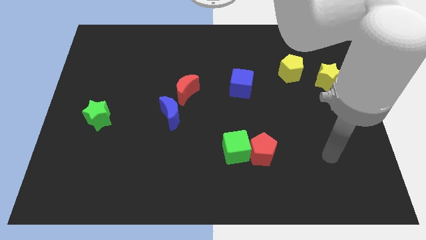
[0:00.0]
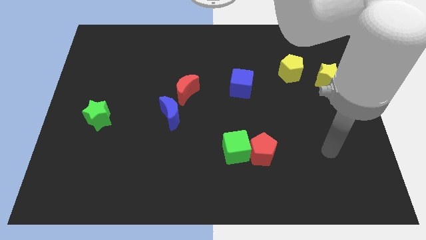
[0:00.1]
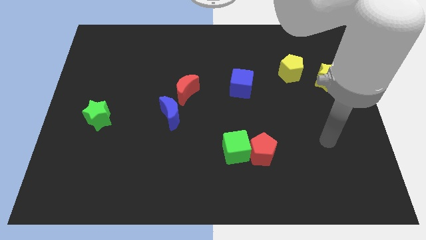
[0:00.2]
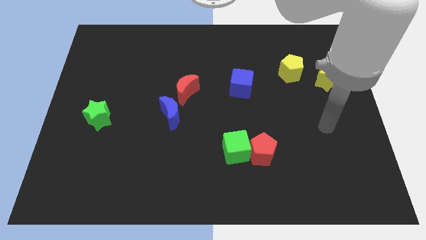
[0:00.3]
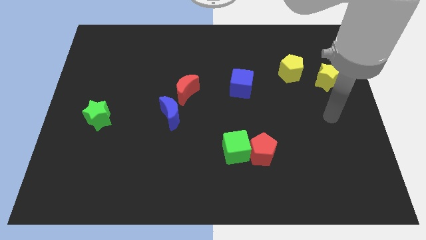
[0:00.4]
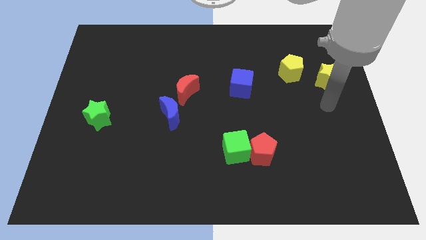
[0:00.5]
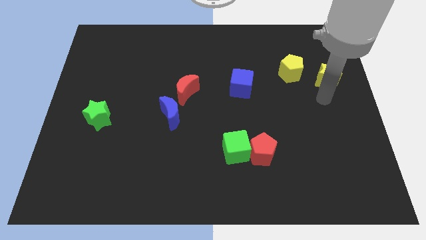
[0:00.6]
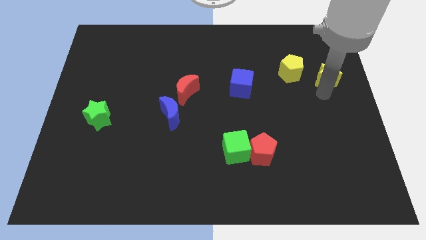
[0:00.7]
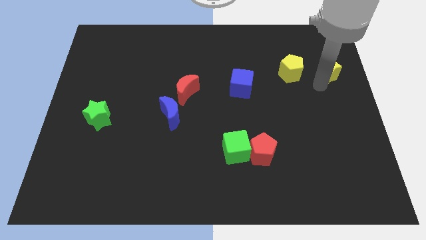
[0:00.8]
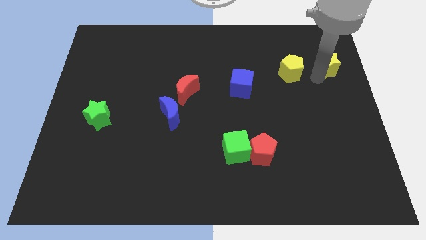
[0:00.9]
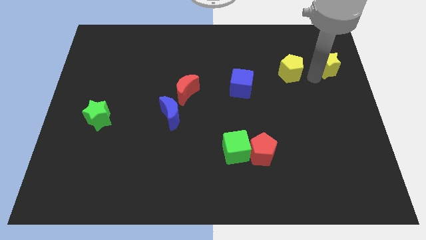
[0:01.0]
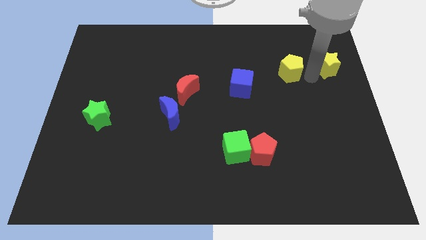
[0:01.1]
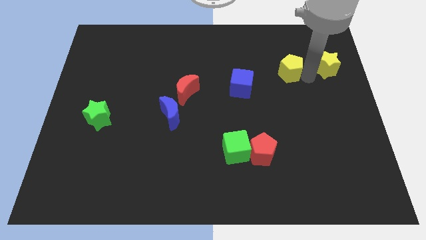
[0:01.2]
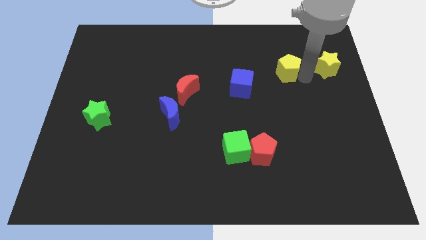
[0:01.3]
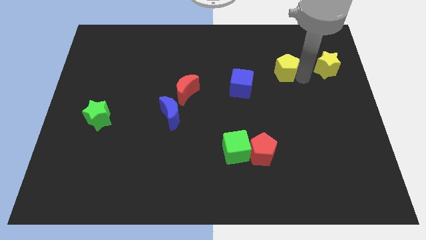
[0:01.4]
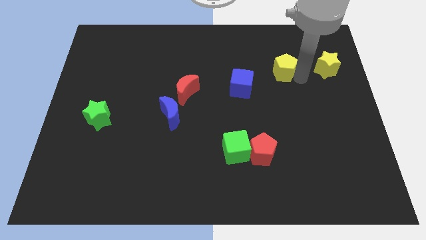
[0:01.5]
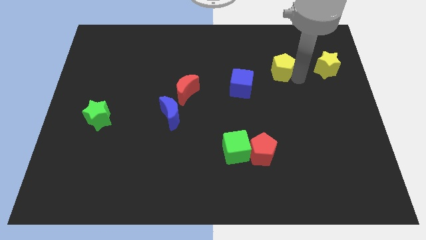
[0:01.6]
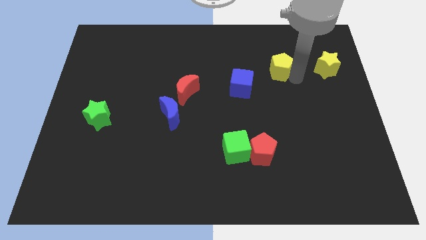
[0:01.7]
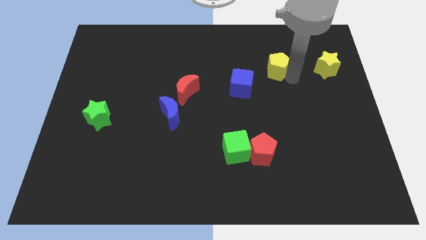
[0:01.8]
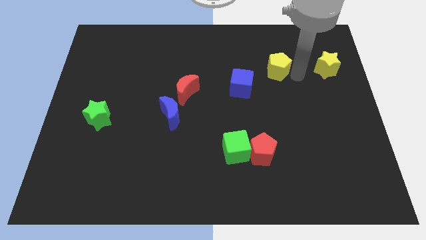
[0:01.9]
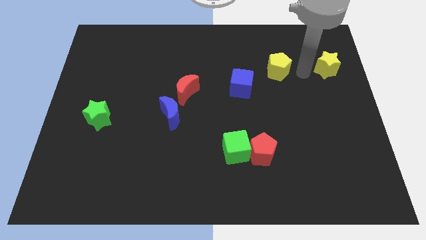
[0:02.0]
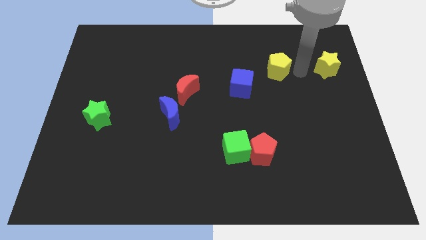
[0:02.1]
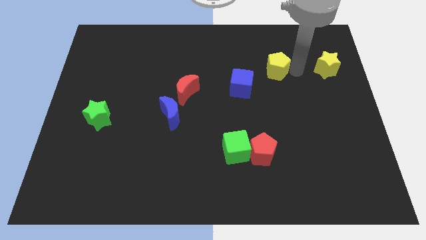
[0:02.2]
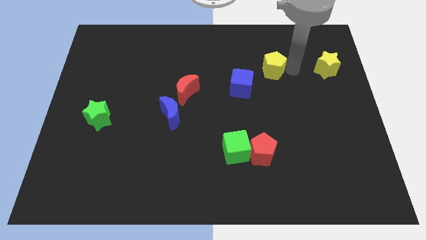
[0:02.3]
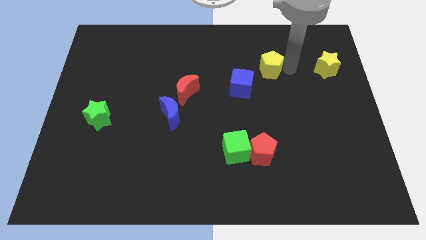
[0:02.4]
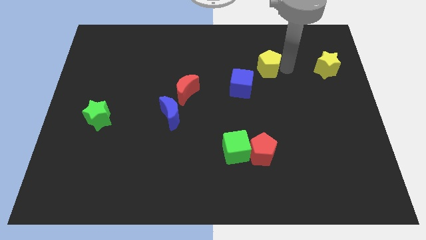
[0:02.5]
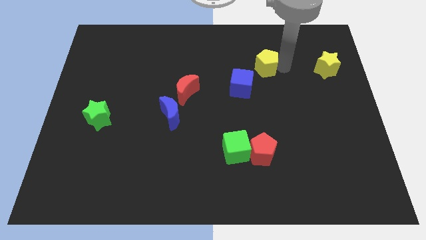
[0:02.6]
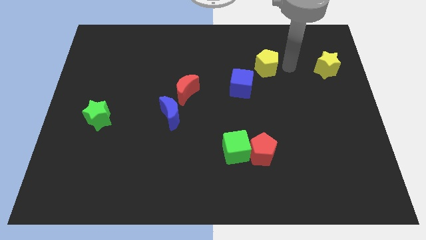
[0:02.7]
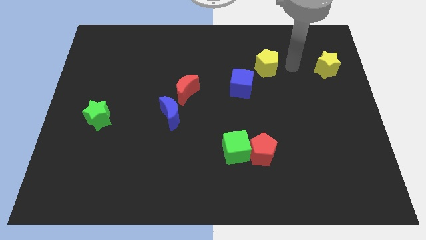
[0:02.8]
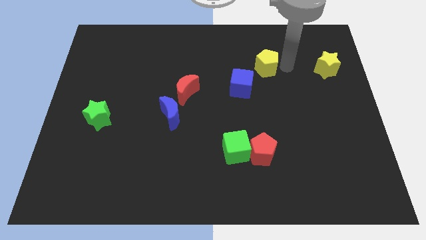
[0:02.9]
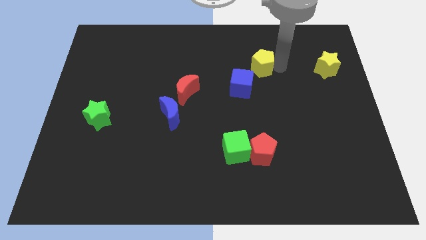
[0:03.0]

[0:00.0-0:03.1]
slide the yellow pentagon a little bit left

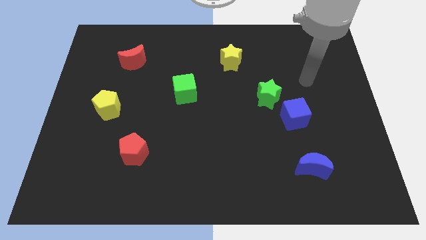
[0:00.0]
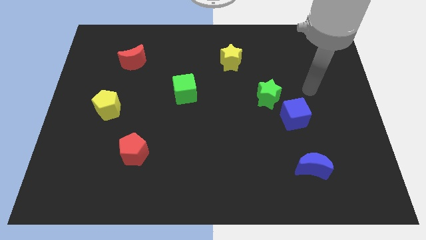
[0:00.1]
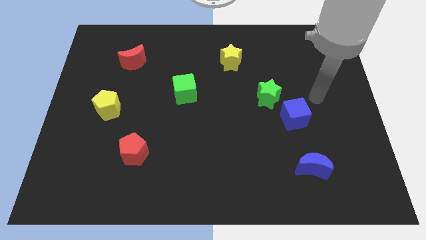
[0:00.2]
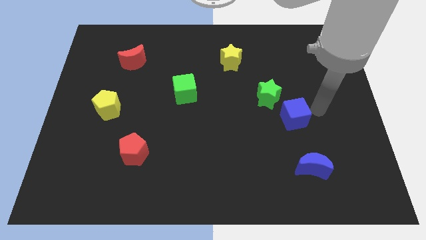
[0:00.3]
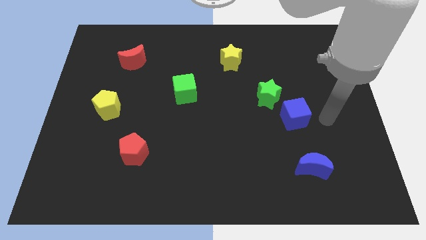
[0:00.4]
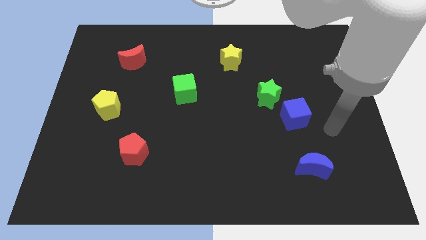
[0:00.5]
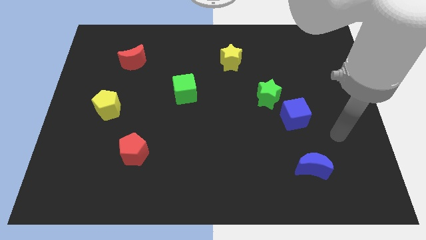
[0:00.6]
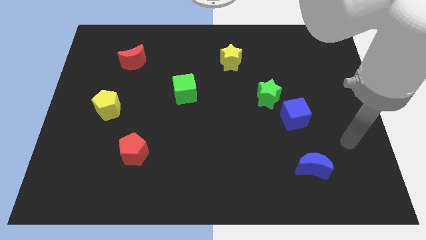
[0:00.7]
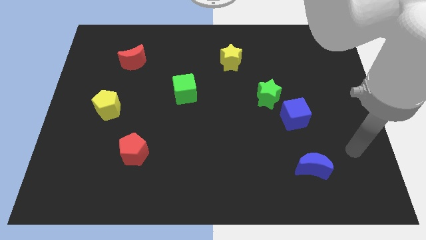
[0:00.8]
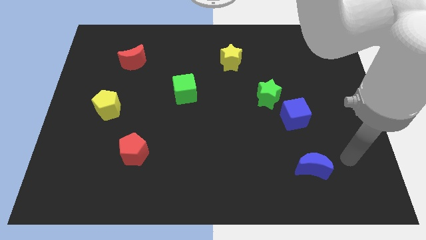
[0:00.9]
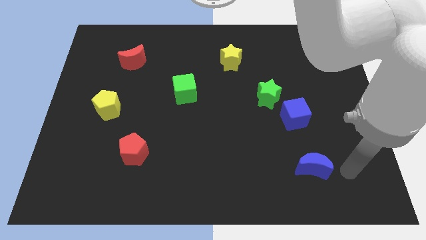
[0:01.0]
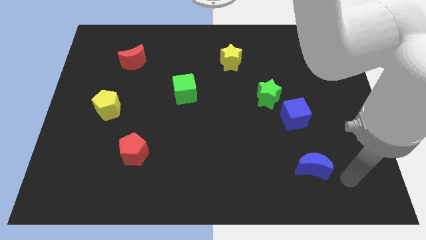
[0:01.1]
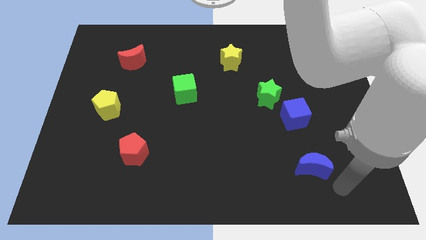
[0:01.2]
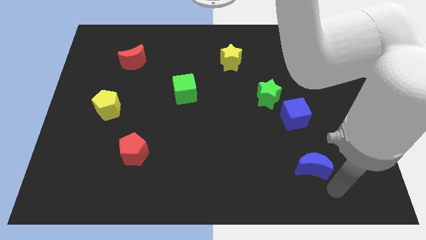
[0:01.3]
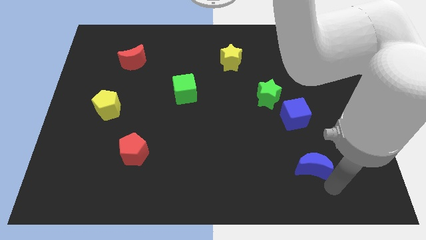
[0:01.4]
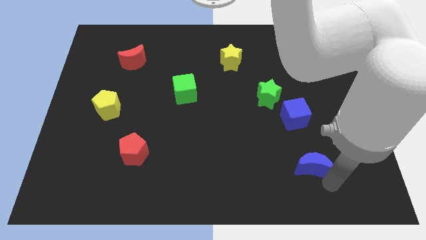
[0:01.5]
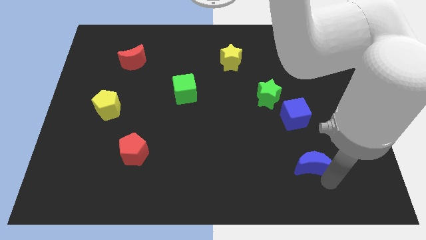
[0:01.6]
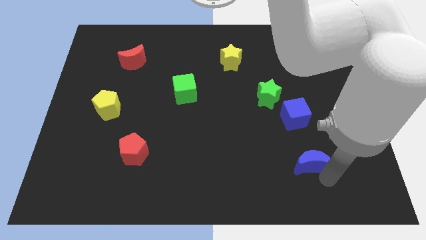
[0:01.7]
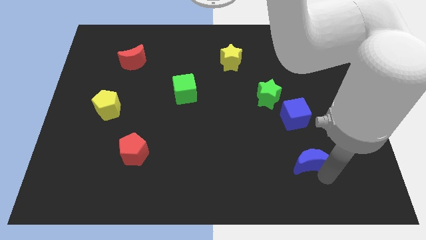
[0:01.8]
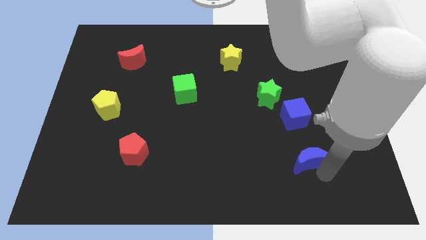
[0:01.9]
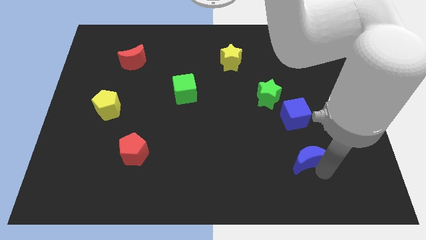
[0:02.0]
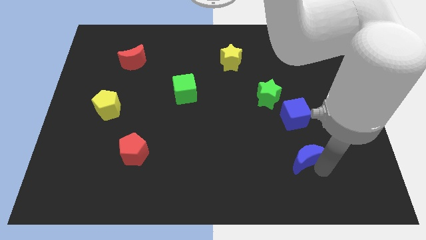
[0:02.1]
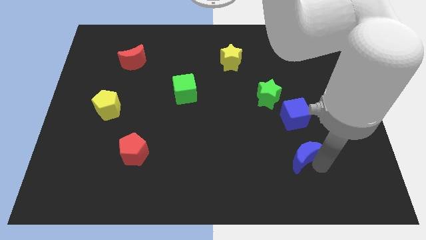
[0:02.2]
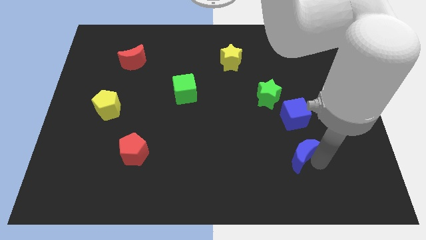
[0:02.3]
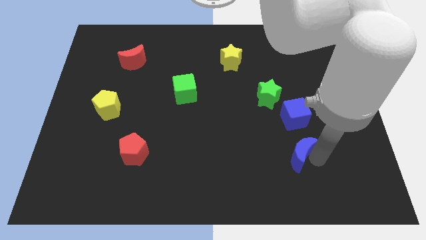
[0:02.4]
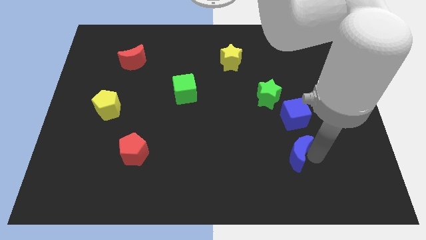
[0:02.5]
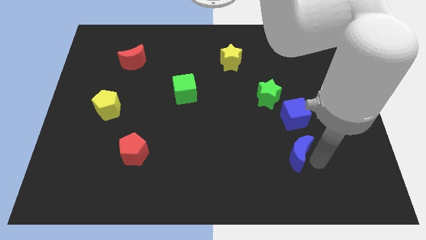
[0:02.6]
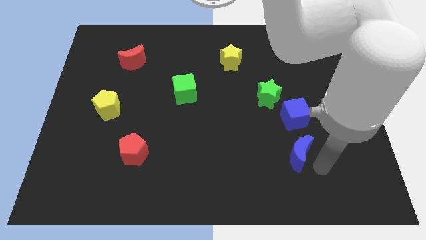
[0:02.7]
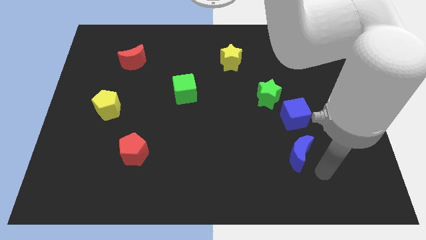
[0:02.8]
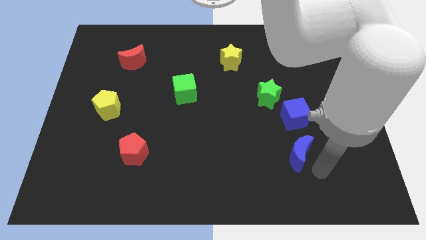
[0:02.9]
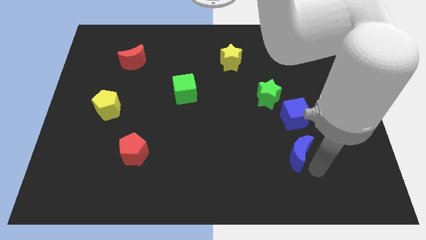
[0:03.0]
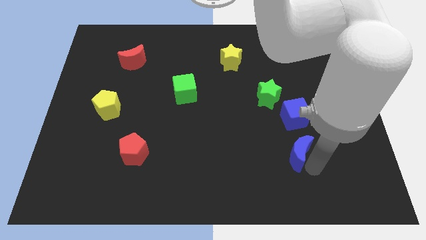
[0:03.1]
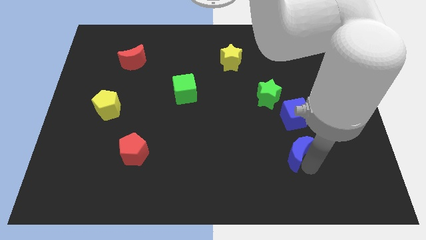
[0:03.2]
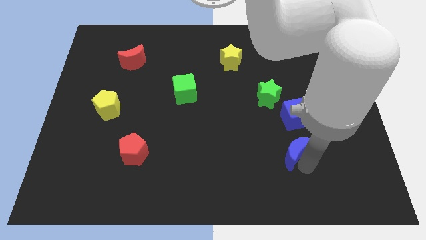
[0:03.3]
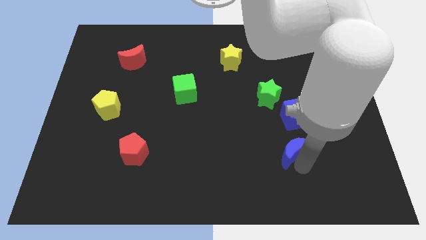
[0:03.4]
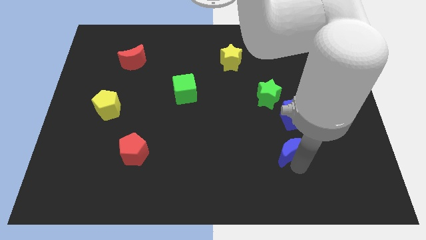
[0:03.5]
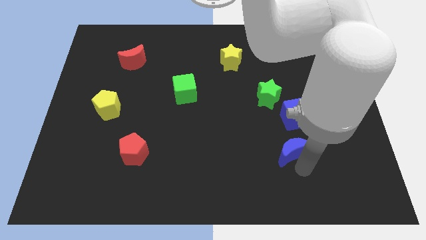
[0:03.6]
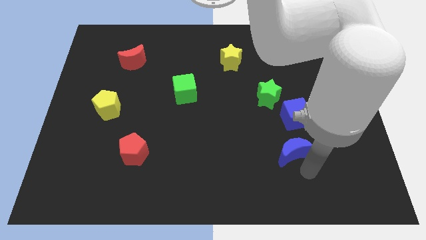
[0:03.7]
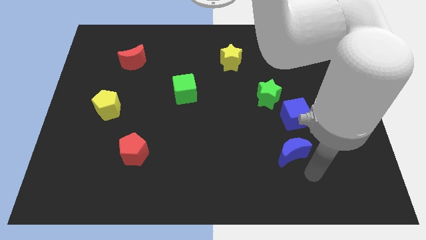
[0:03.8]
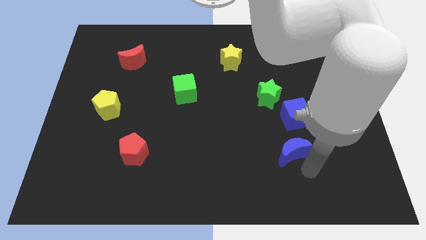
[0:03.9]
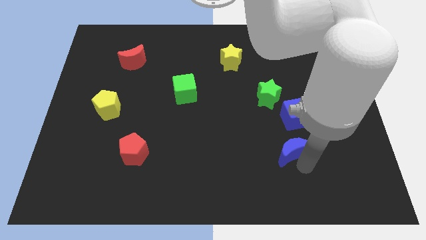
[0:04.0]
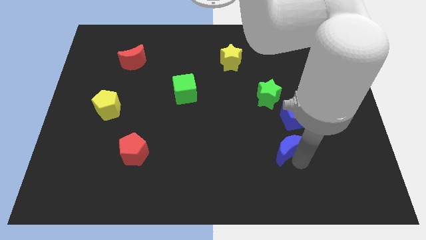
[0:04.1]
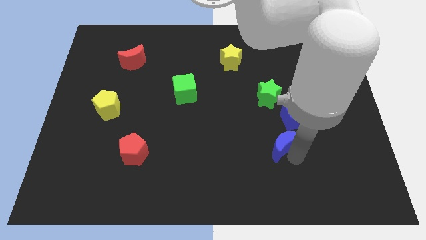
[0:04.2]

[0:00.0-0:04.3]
move the blue moon up and to the left diagonally a little

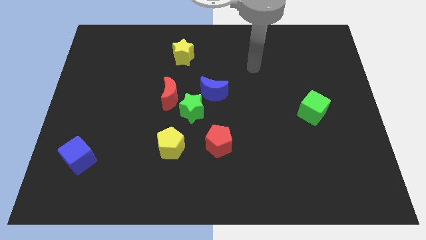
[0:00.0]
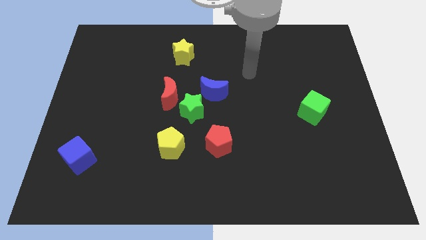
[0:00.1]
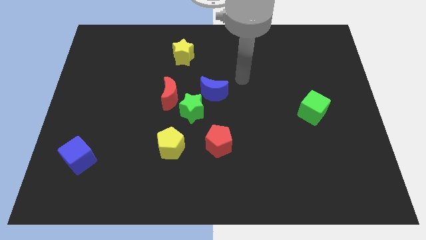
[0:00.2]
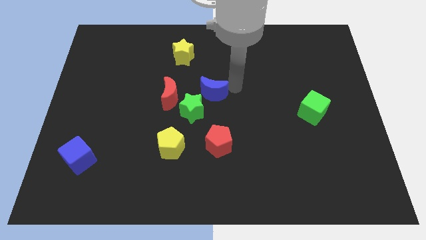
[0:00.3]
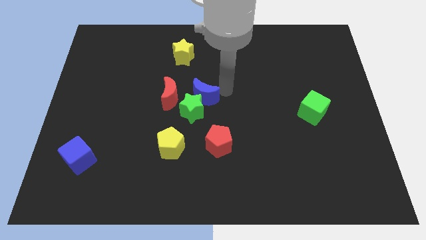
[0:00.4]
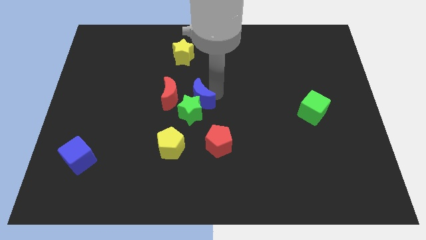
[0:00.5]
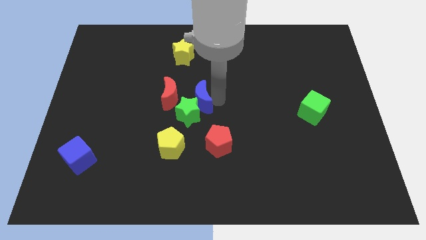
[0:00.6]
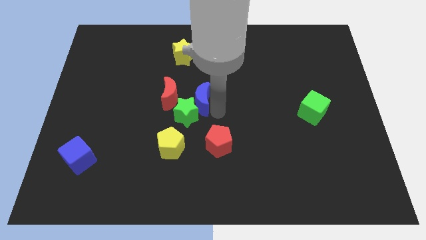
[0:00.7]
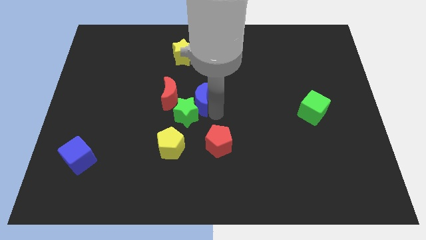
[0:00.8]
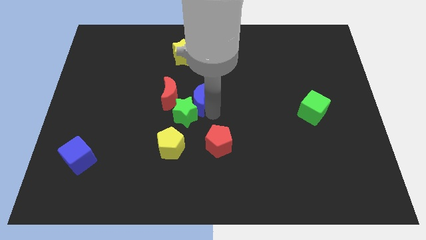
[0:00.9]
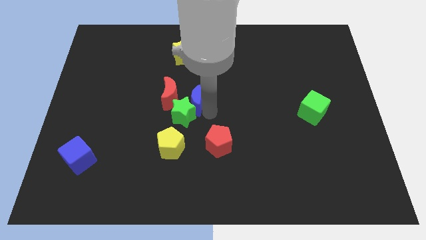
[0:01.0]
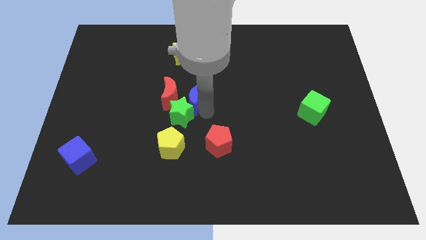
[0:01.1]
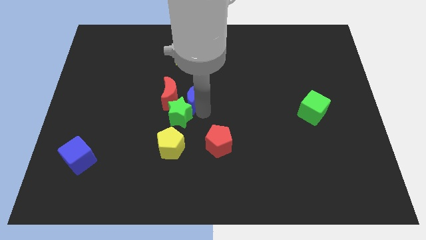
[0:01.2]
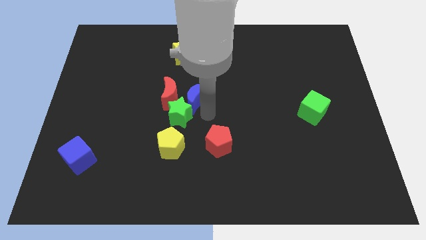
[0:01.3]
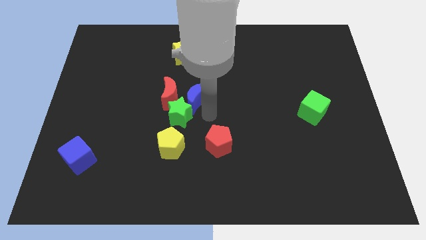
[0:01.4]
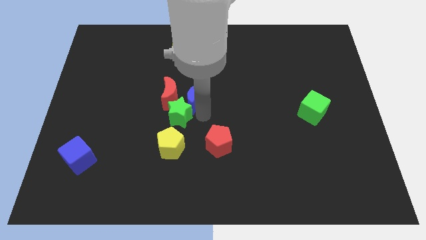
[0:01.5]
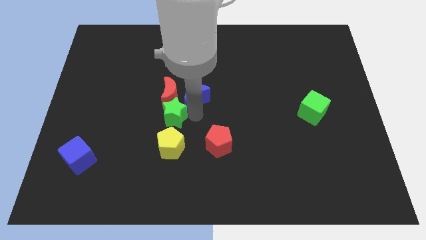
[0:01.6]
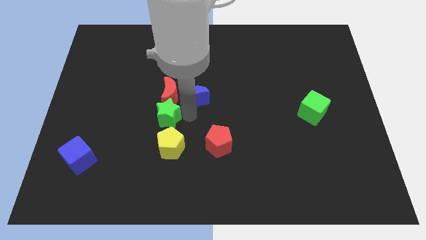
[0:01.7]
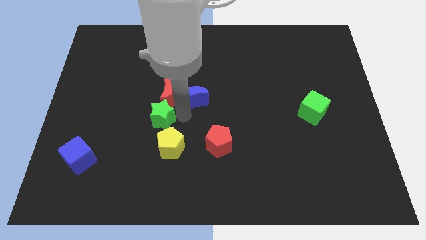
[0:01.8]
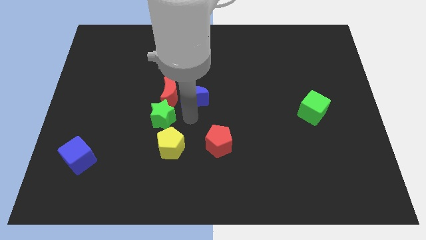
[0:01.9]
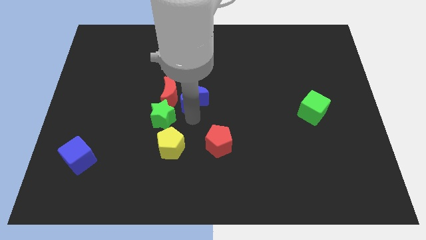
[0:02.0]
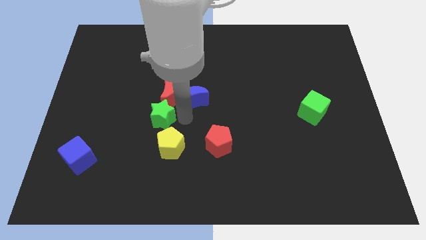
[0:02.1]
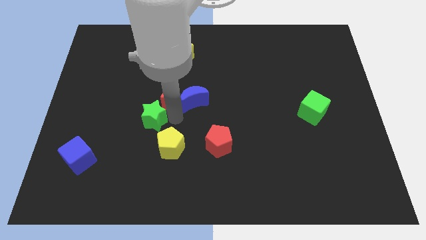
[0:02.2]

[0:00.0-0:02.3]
push the green star slightly to the left
